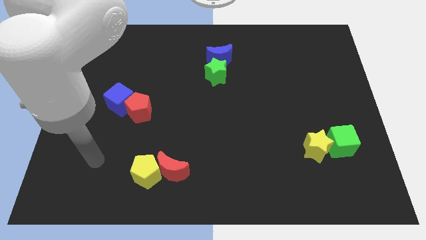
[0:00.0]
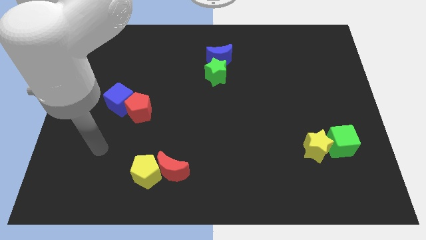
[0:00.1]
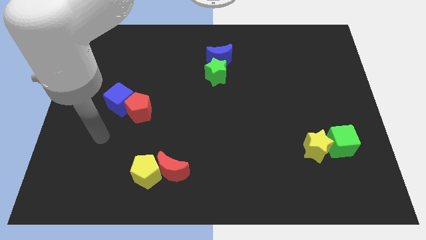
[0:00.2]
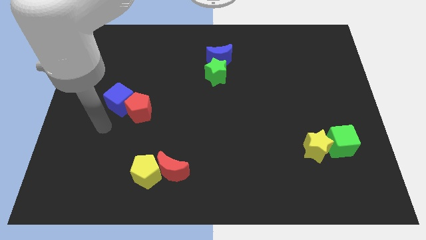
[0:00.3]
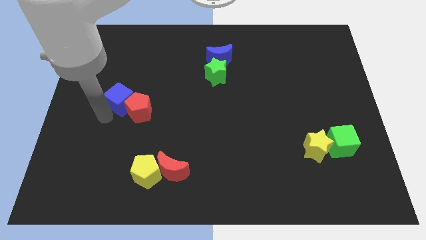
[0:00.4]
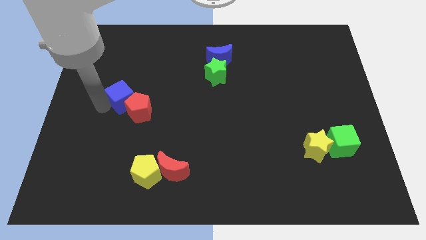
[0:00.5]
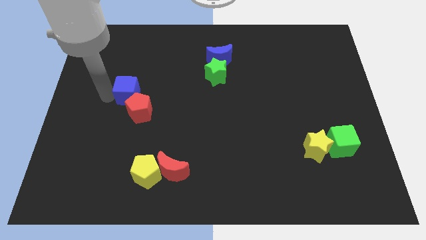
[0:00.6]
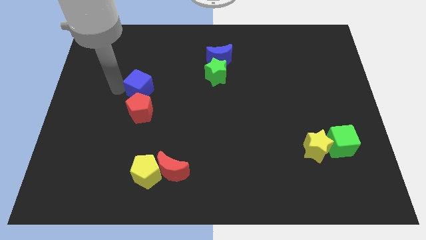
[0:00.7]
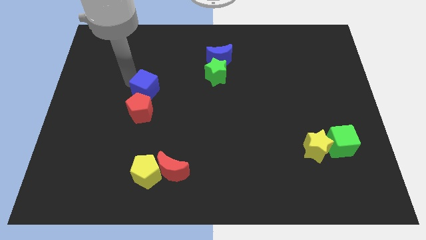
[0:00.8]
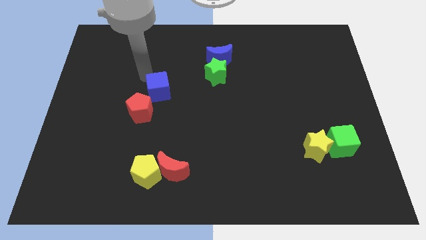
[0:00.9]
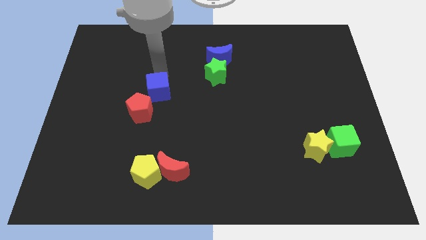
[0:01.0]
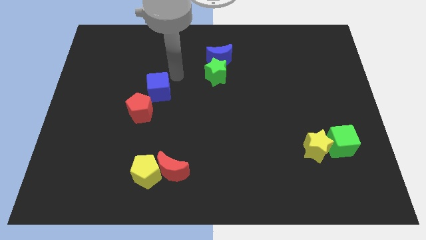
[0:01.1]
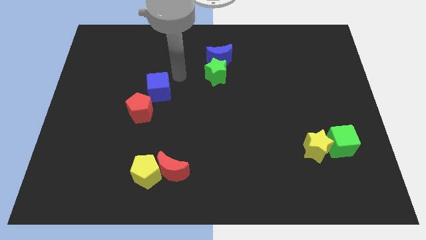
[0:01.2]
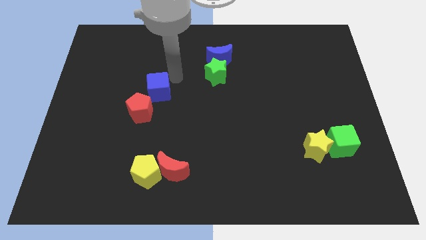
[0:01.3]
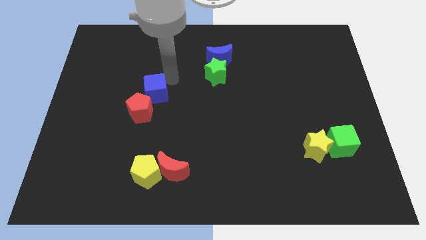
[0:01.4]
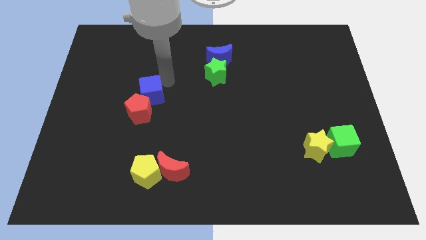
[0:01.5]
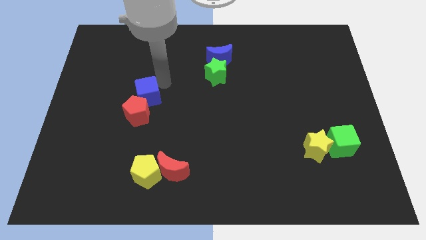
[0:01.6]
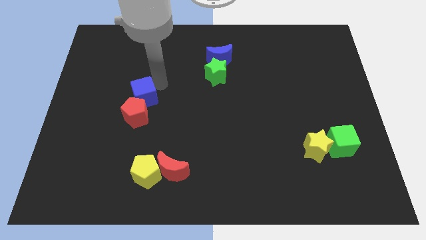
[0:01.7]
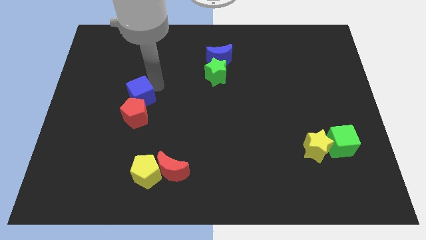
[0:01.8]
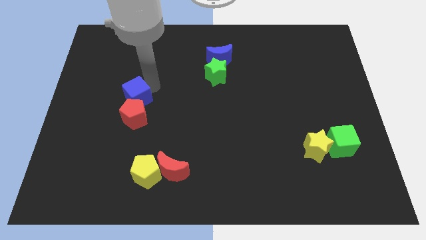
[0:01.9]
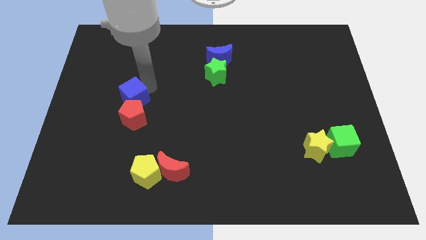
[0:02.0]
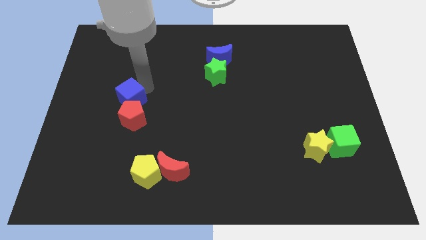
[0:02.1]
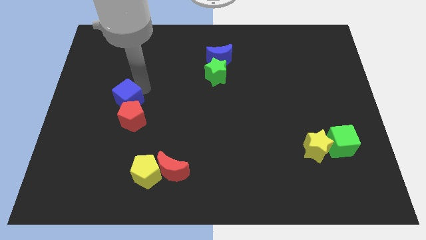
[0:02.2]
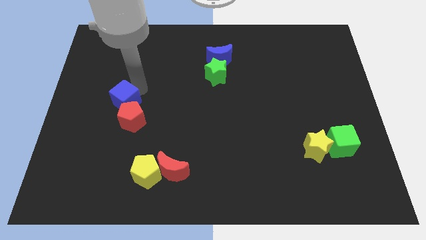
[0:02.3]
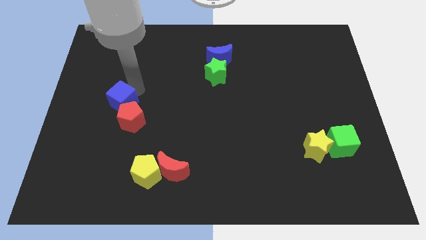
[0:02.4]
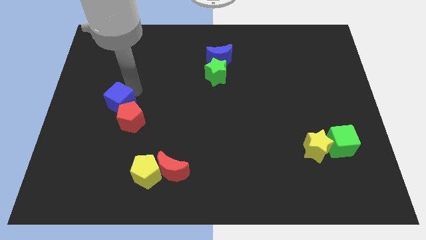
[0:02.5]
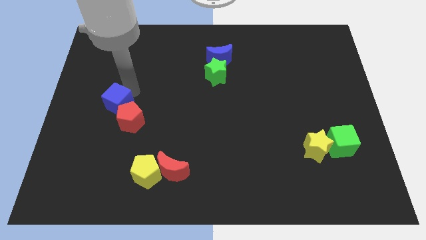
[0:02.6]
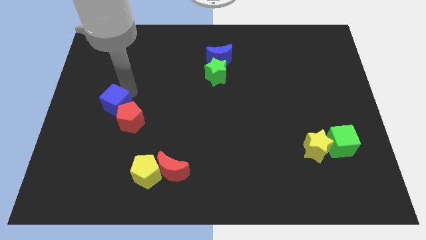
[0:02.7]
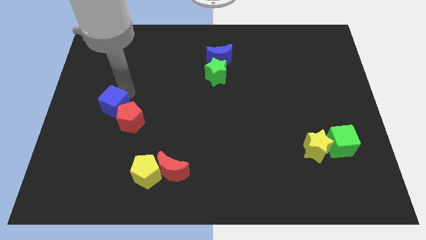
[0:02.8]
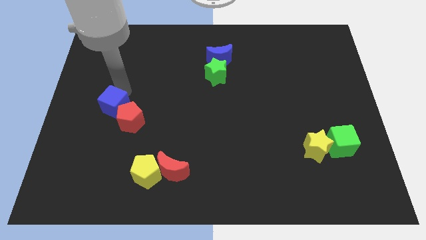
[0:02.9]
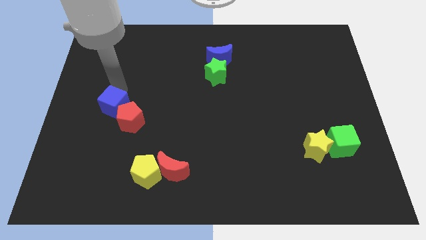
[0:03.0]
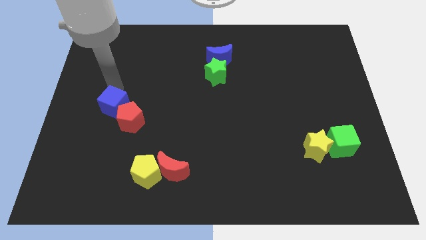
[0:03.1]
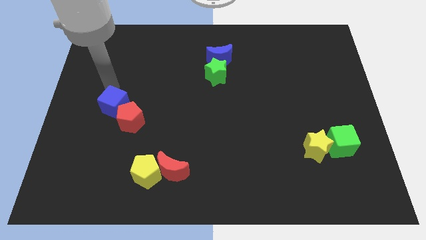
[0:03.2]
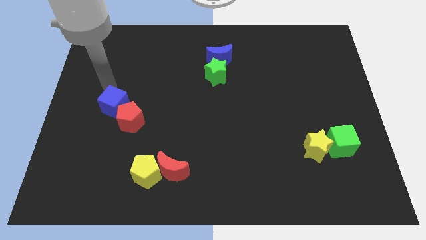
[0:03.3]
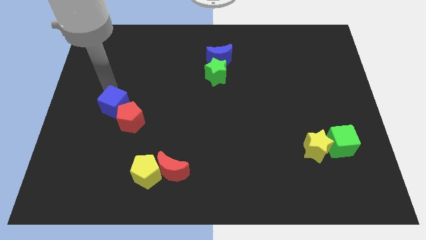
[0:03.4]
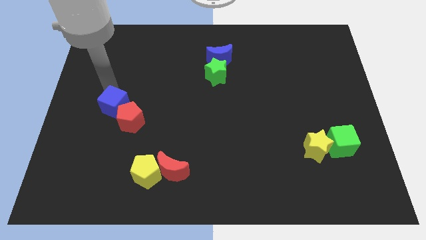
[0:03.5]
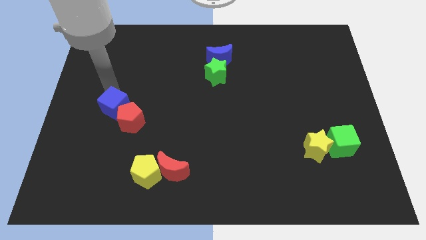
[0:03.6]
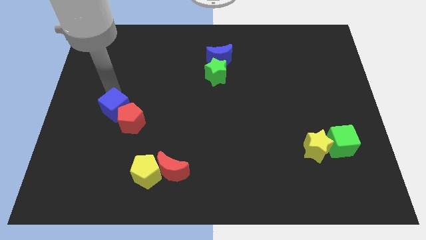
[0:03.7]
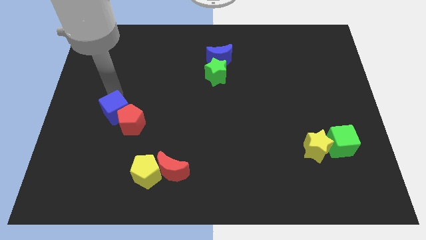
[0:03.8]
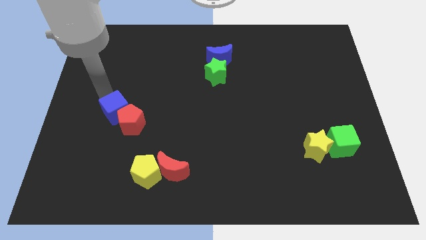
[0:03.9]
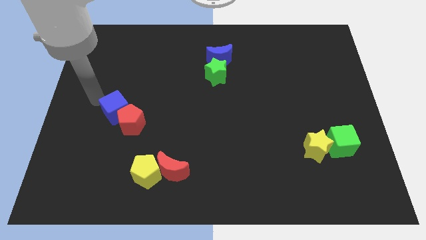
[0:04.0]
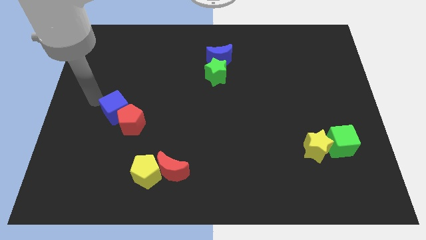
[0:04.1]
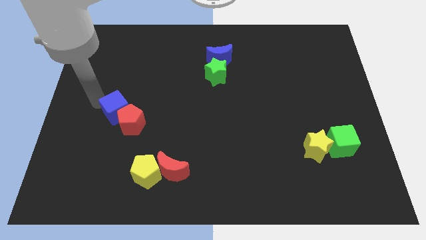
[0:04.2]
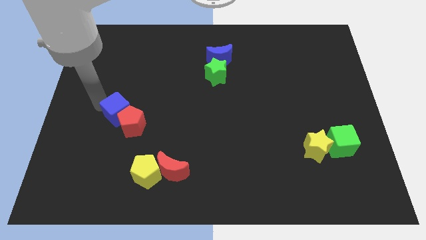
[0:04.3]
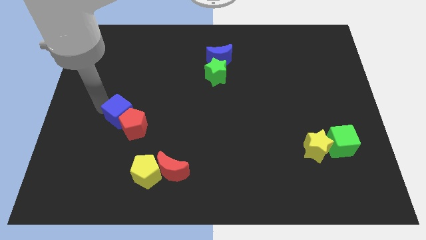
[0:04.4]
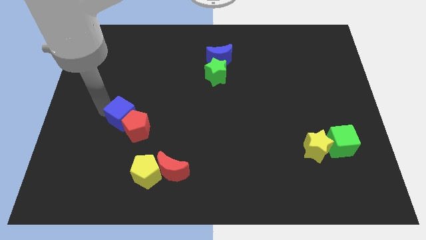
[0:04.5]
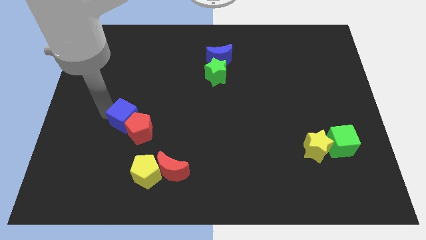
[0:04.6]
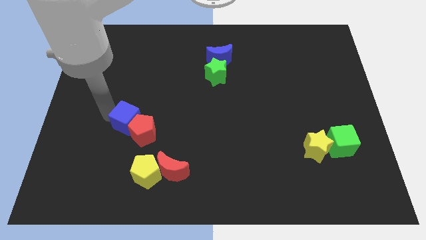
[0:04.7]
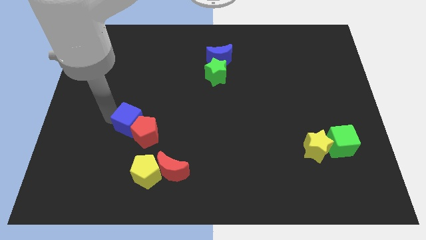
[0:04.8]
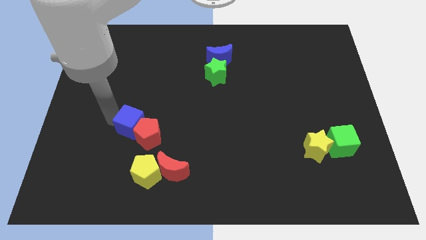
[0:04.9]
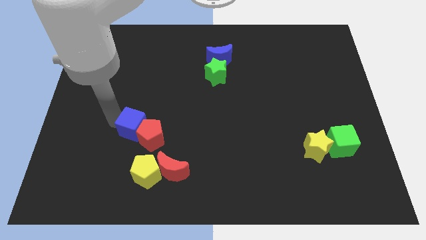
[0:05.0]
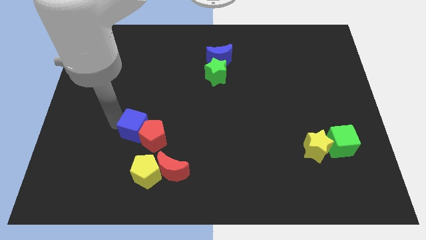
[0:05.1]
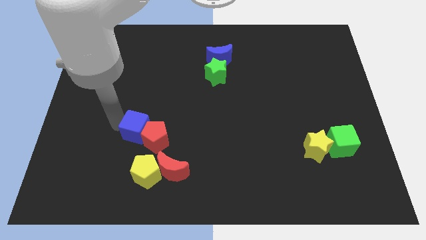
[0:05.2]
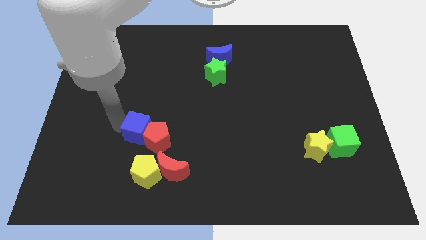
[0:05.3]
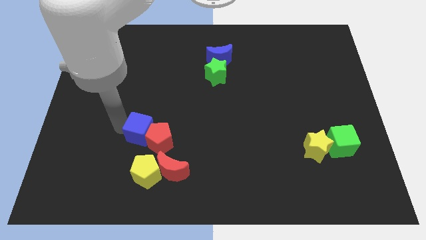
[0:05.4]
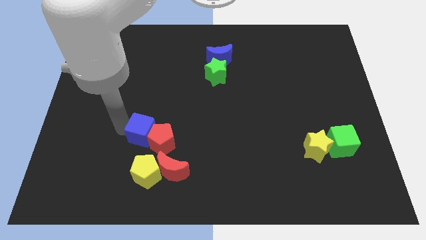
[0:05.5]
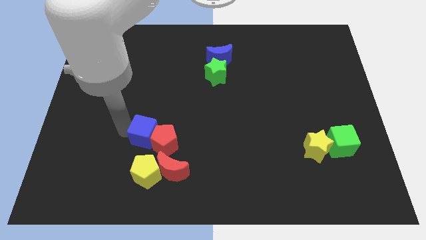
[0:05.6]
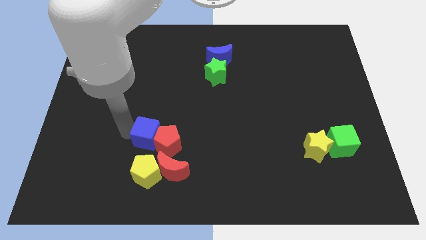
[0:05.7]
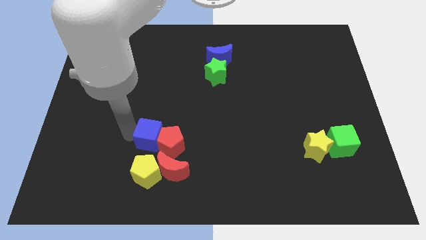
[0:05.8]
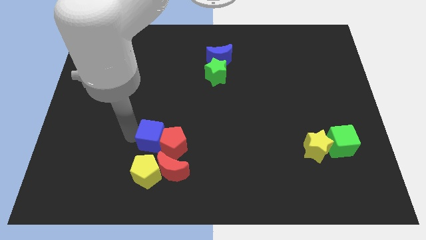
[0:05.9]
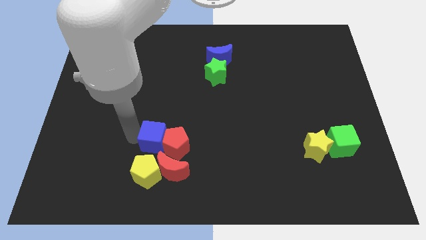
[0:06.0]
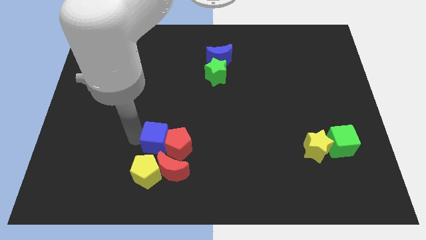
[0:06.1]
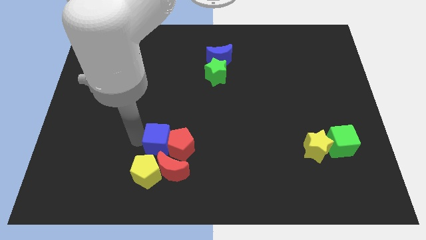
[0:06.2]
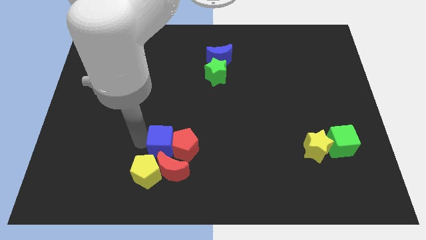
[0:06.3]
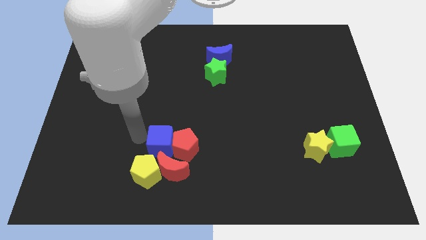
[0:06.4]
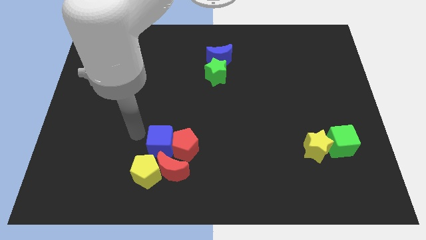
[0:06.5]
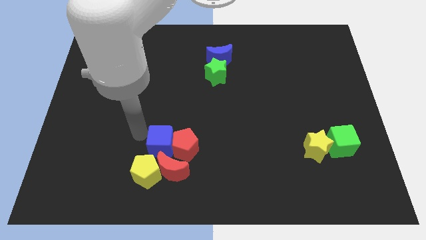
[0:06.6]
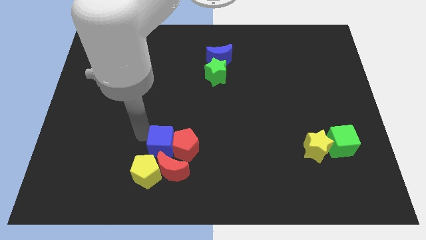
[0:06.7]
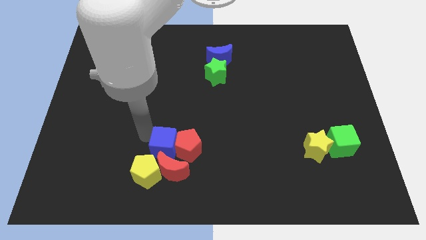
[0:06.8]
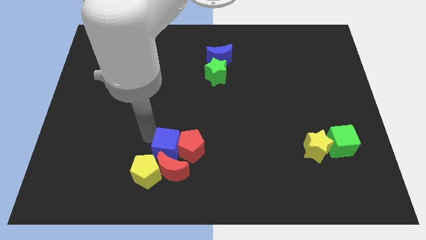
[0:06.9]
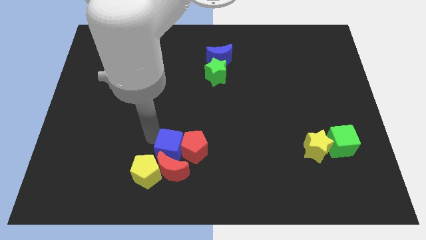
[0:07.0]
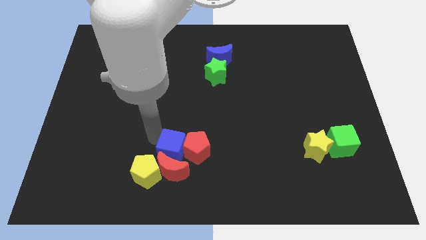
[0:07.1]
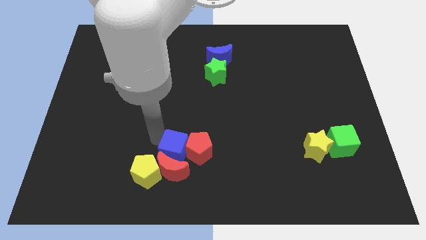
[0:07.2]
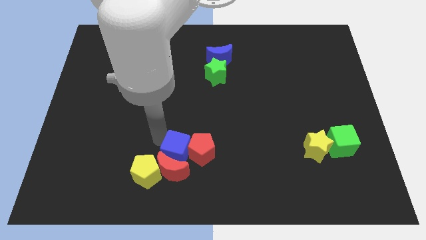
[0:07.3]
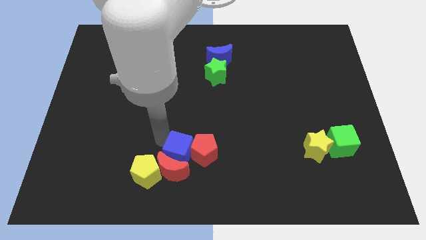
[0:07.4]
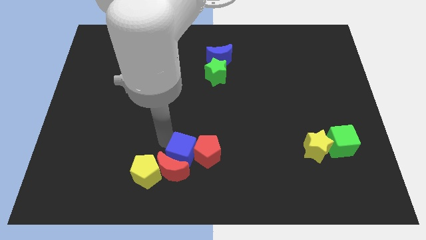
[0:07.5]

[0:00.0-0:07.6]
slide the blue cube right of the yellow pentagon
